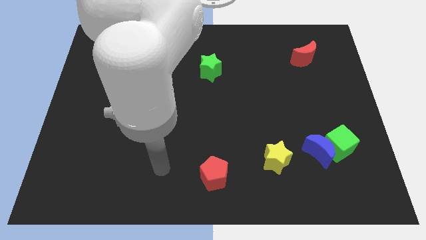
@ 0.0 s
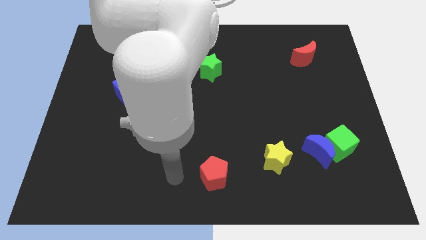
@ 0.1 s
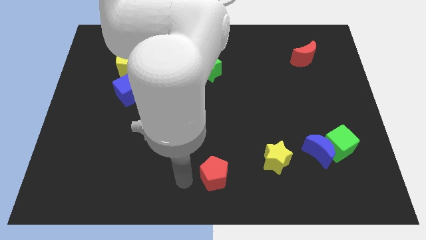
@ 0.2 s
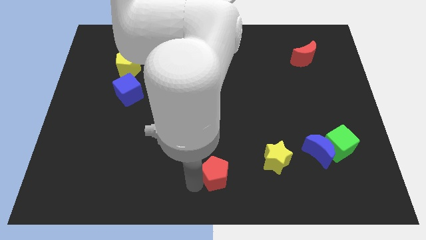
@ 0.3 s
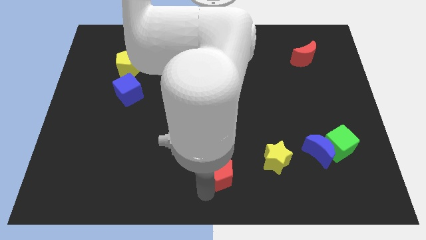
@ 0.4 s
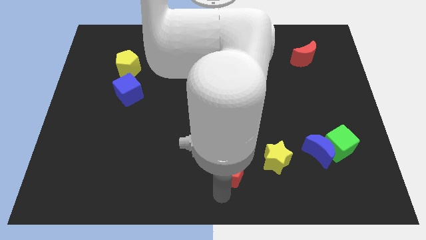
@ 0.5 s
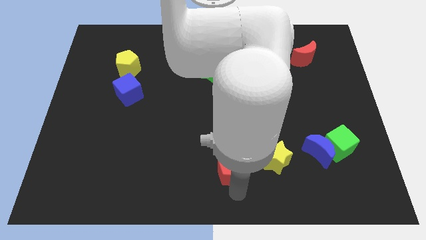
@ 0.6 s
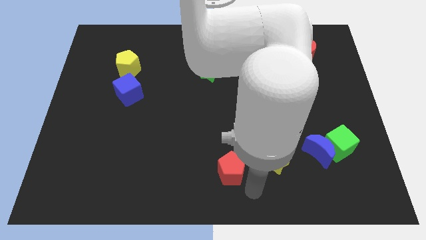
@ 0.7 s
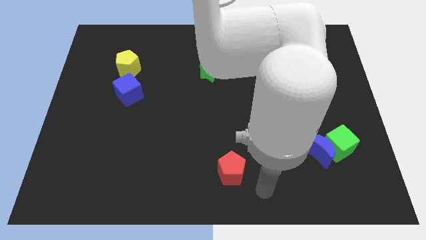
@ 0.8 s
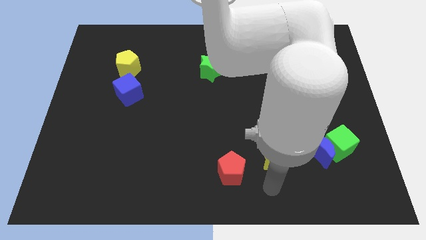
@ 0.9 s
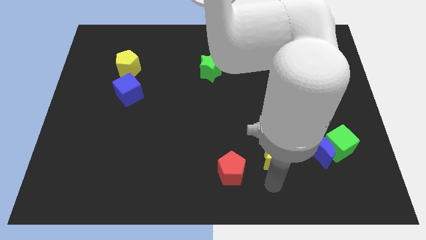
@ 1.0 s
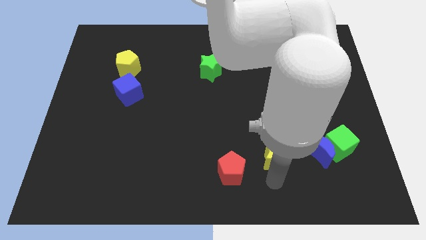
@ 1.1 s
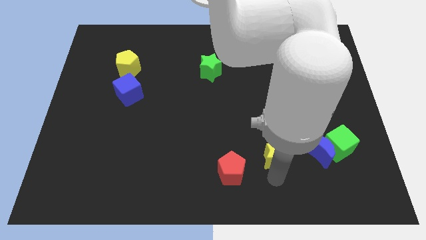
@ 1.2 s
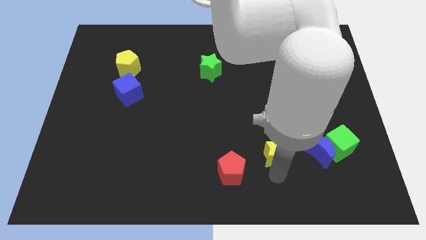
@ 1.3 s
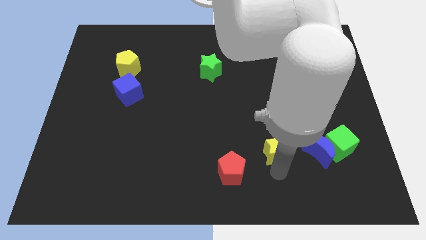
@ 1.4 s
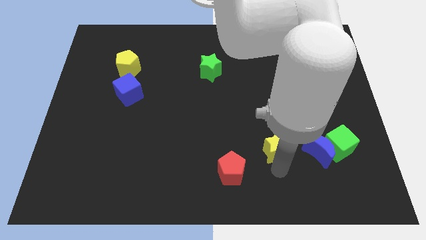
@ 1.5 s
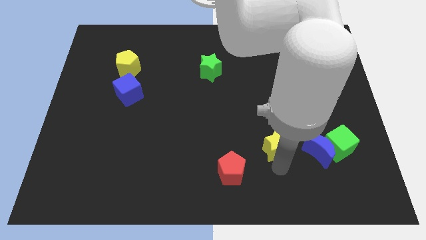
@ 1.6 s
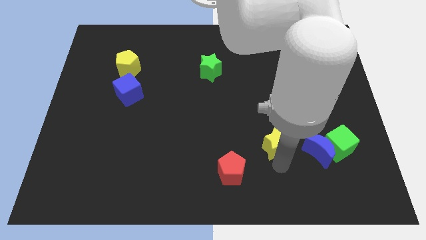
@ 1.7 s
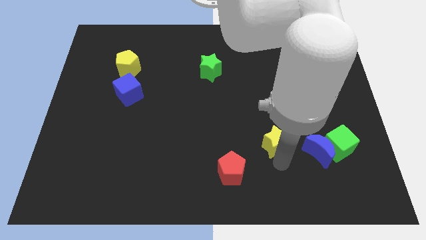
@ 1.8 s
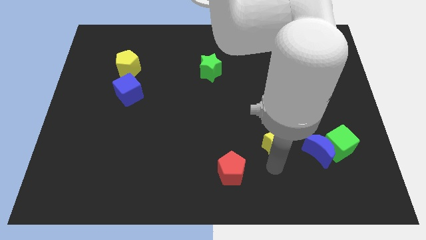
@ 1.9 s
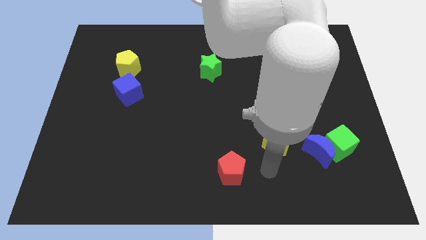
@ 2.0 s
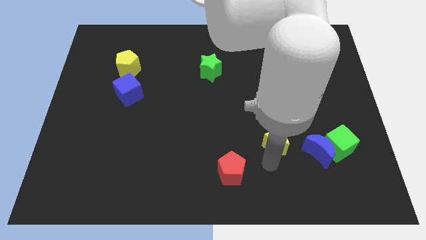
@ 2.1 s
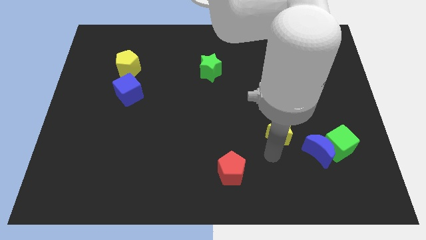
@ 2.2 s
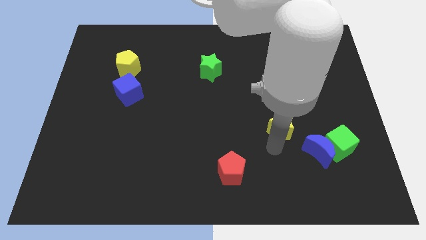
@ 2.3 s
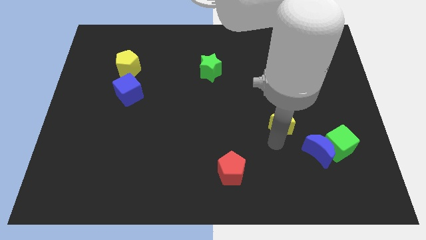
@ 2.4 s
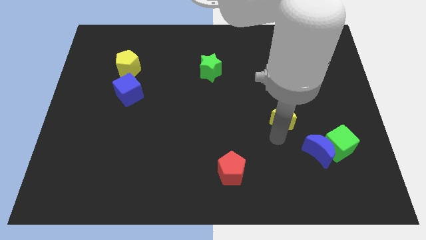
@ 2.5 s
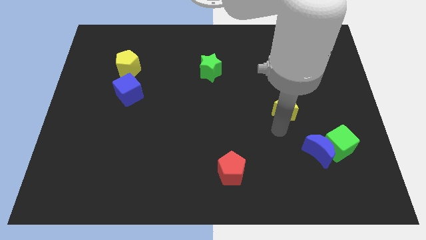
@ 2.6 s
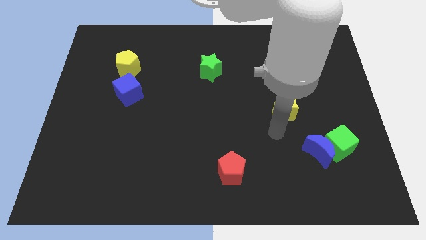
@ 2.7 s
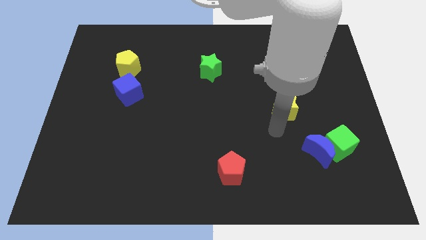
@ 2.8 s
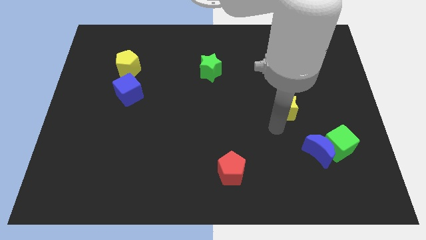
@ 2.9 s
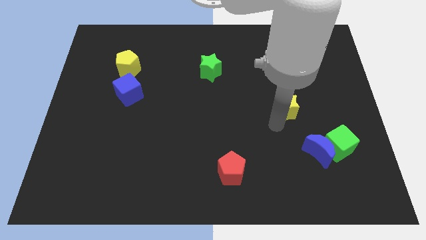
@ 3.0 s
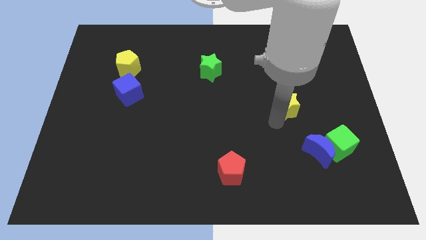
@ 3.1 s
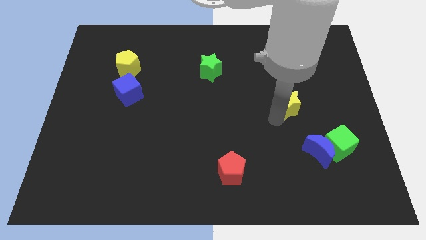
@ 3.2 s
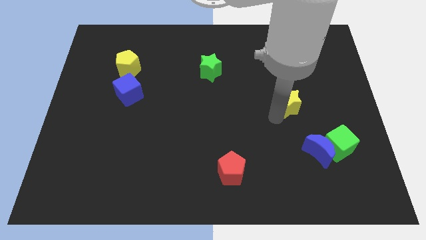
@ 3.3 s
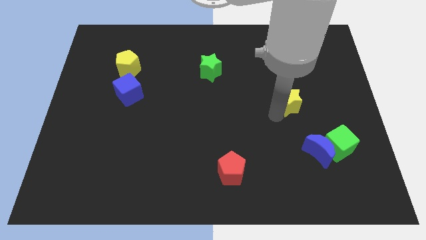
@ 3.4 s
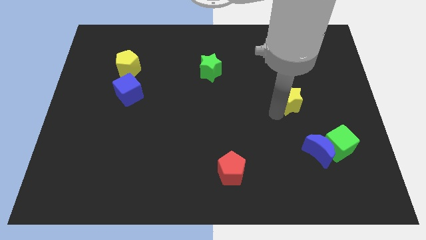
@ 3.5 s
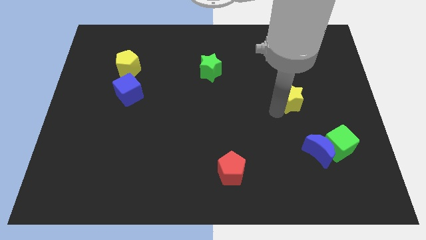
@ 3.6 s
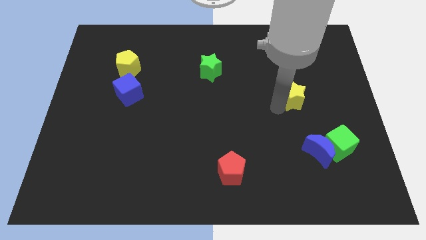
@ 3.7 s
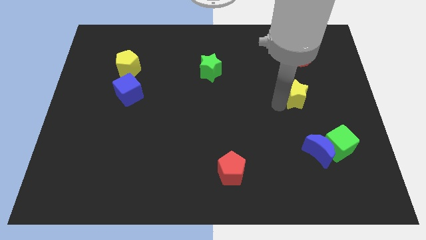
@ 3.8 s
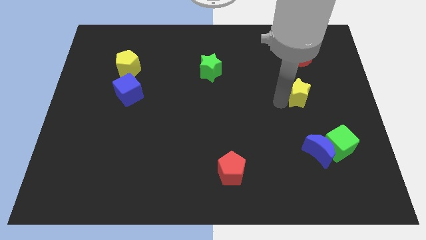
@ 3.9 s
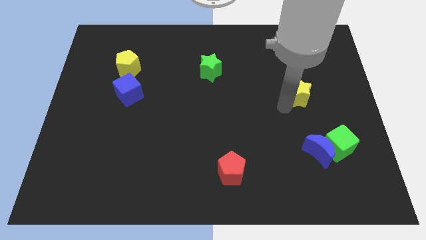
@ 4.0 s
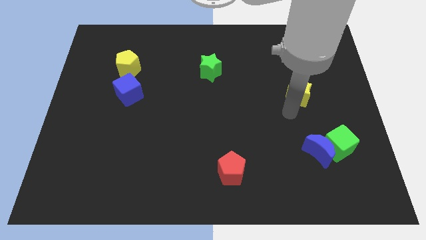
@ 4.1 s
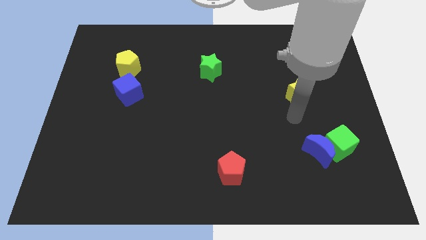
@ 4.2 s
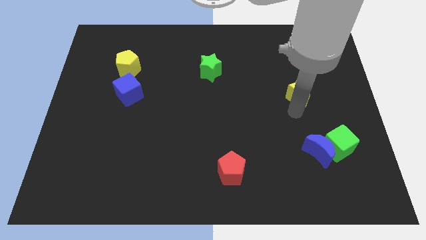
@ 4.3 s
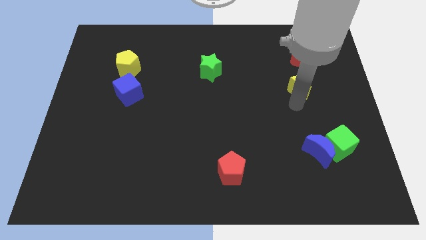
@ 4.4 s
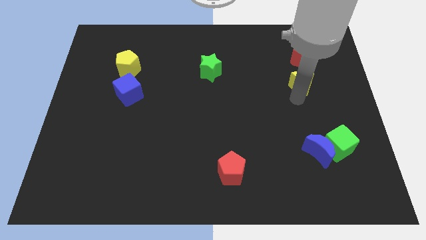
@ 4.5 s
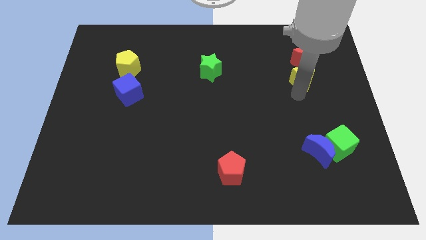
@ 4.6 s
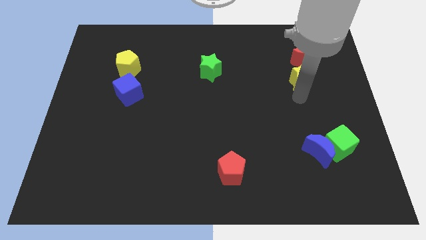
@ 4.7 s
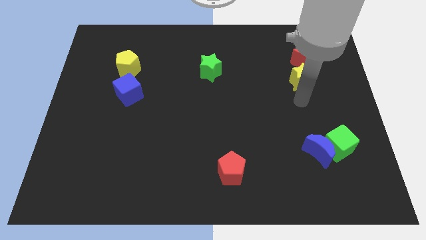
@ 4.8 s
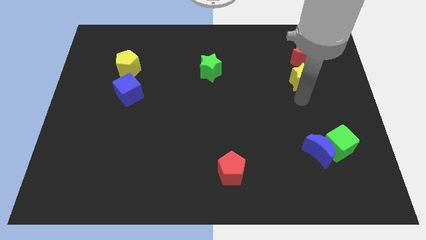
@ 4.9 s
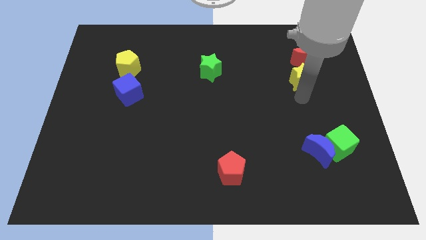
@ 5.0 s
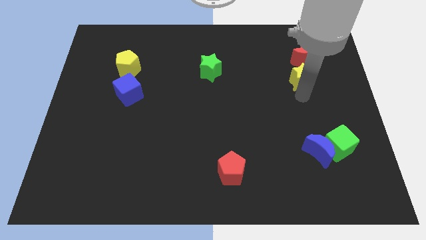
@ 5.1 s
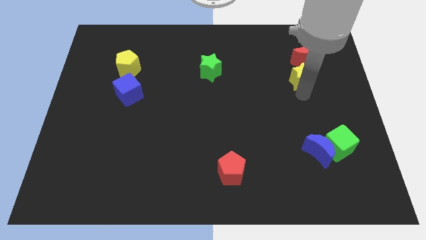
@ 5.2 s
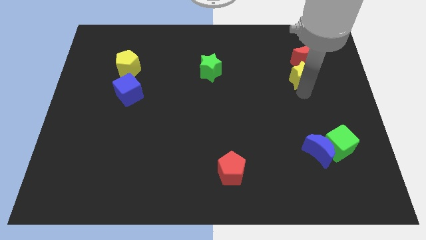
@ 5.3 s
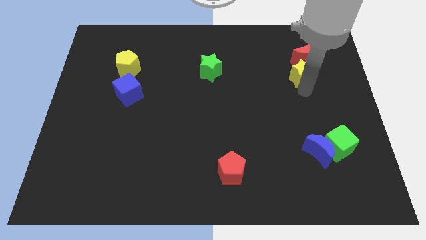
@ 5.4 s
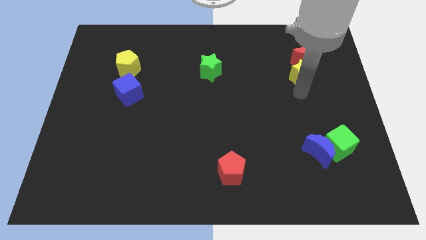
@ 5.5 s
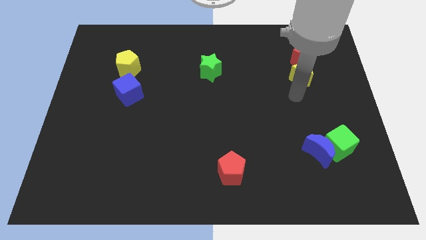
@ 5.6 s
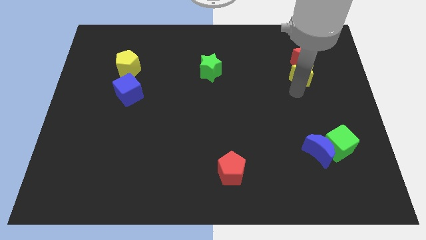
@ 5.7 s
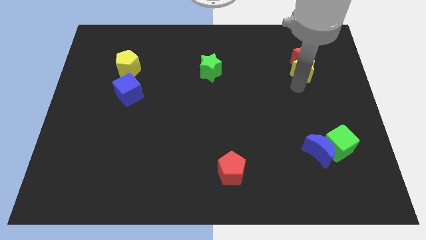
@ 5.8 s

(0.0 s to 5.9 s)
put the yellow star next to the red moon
